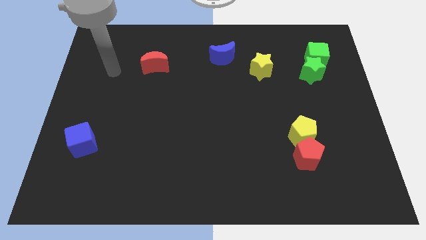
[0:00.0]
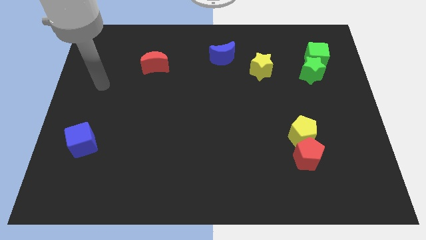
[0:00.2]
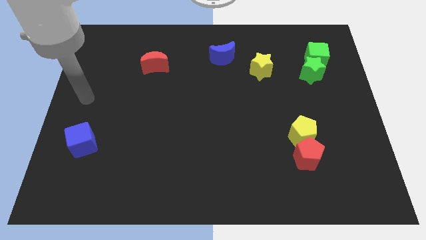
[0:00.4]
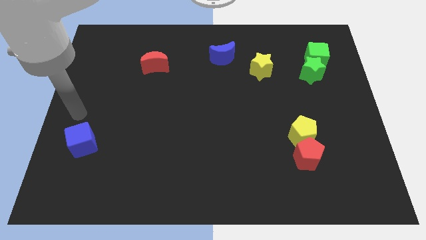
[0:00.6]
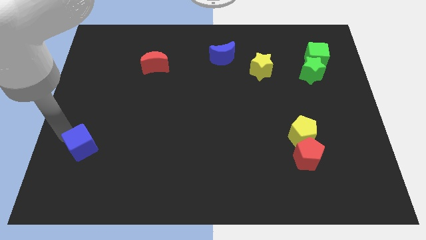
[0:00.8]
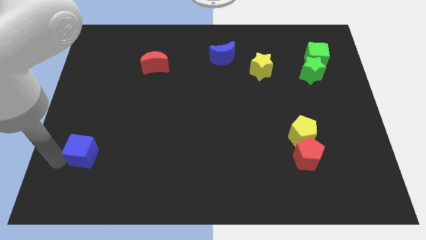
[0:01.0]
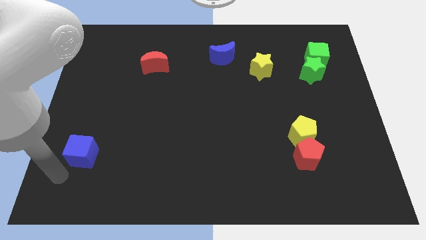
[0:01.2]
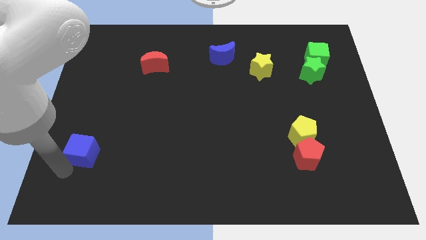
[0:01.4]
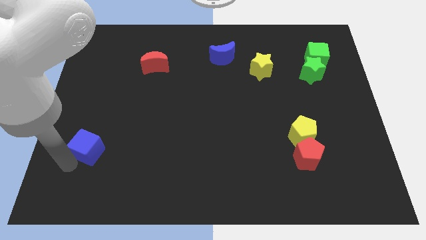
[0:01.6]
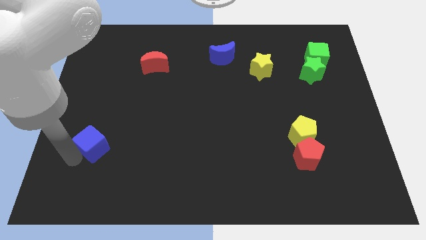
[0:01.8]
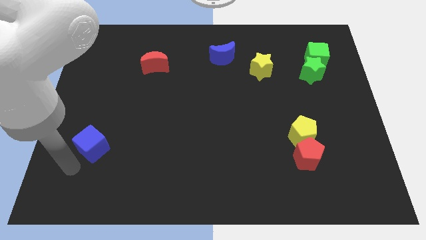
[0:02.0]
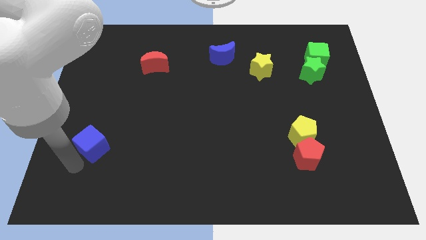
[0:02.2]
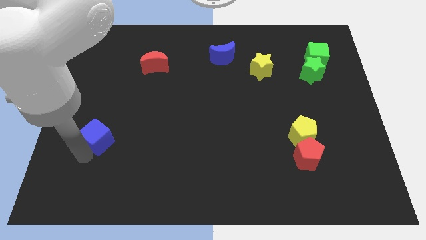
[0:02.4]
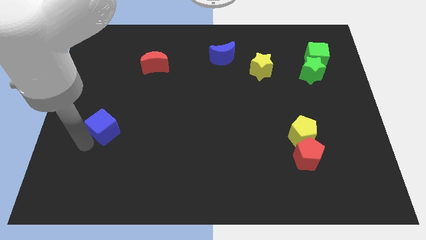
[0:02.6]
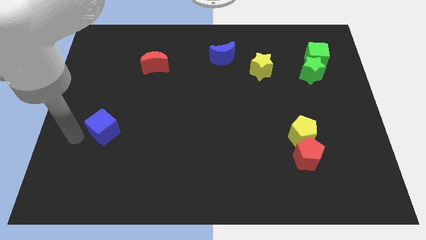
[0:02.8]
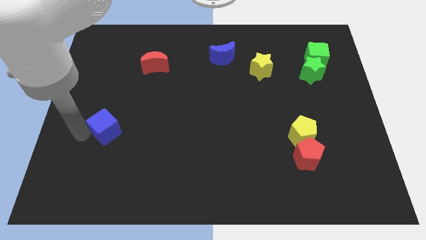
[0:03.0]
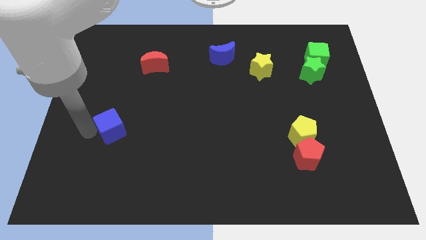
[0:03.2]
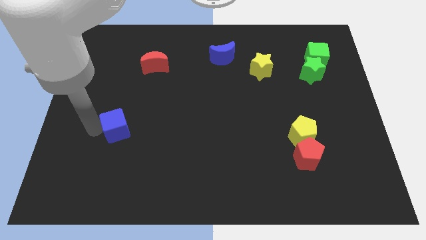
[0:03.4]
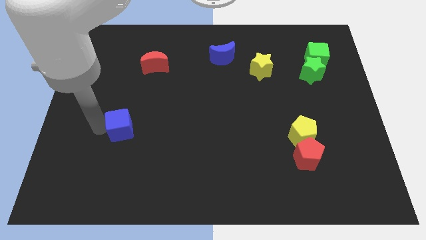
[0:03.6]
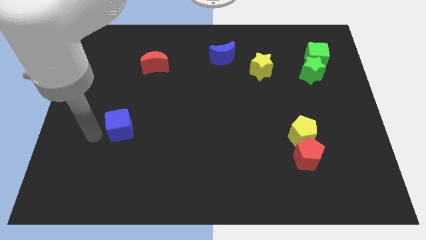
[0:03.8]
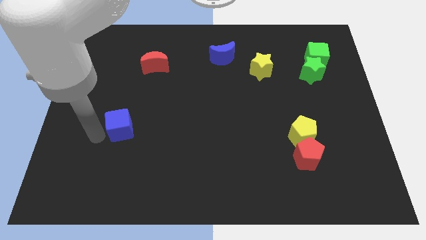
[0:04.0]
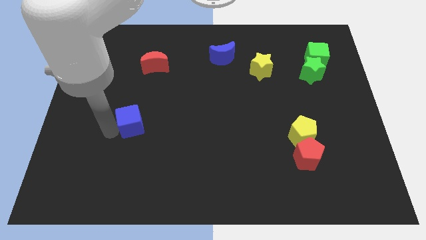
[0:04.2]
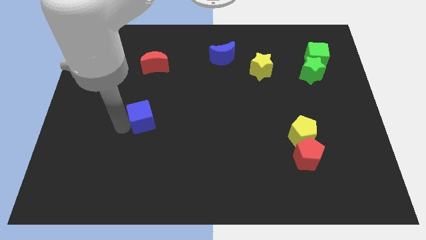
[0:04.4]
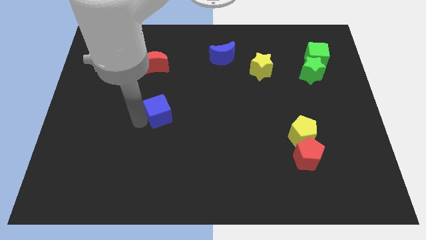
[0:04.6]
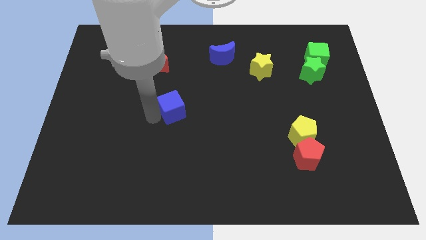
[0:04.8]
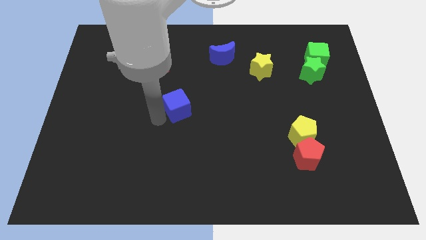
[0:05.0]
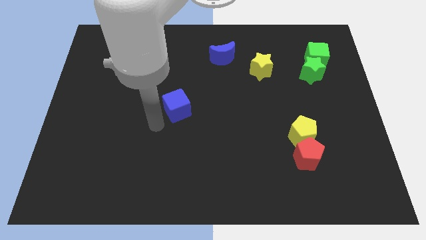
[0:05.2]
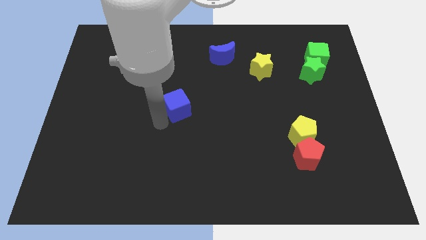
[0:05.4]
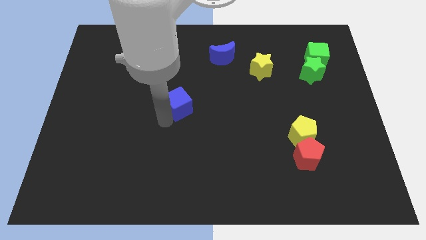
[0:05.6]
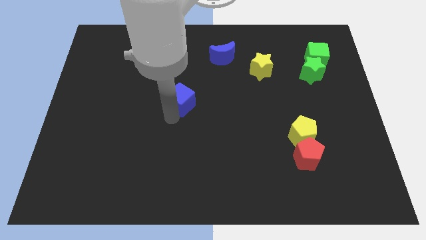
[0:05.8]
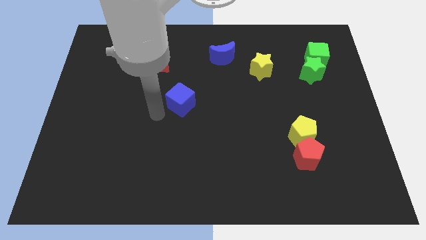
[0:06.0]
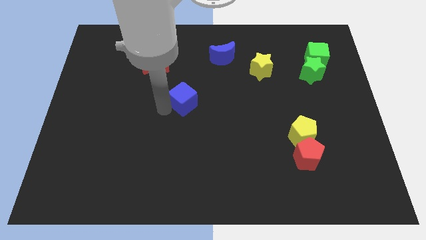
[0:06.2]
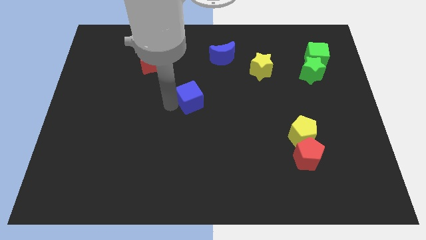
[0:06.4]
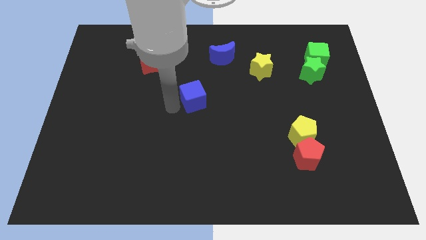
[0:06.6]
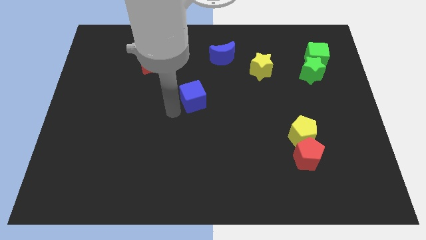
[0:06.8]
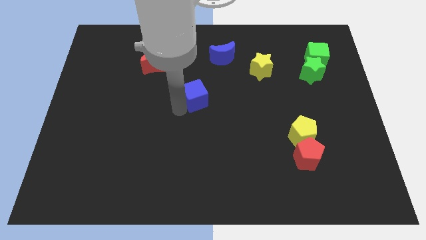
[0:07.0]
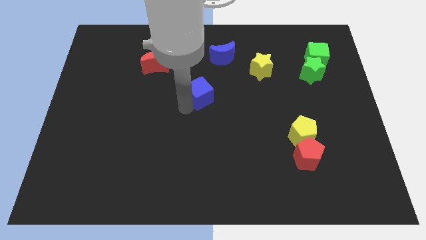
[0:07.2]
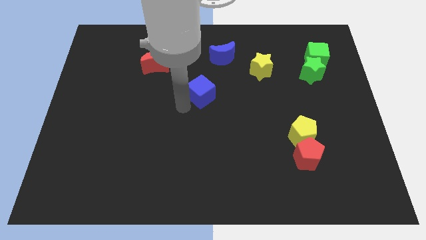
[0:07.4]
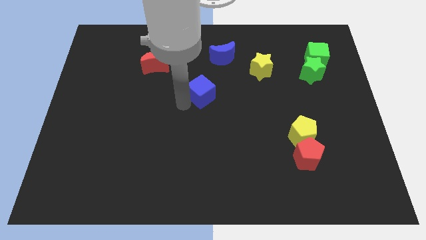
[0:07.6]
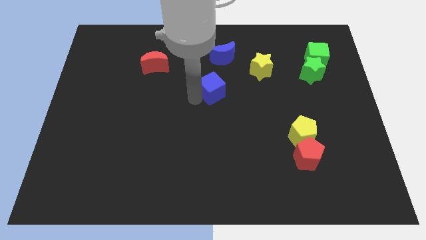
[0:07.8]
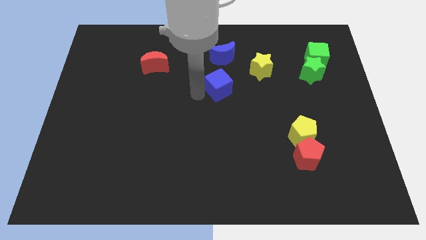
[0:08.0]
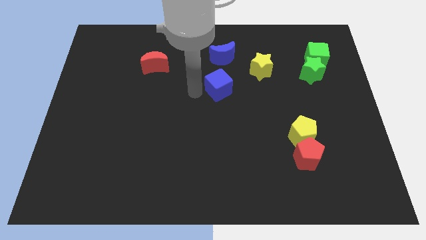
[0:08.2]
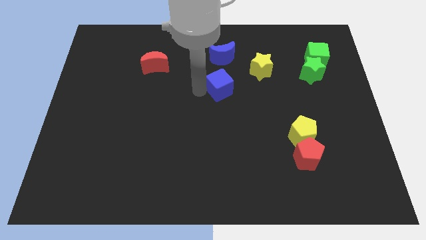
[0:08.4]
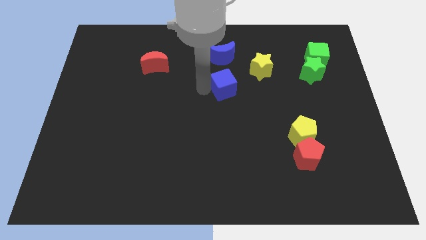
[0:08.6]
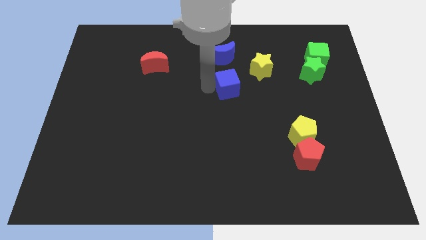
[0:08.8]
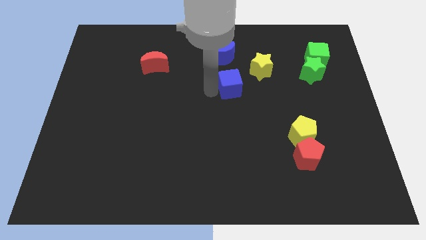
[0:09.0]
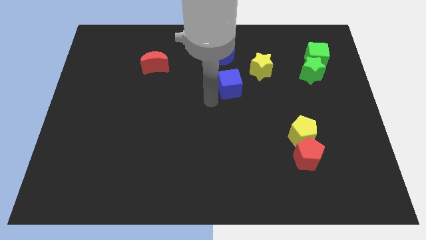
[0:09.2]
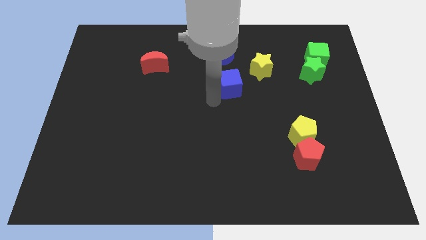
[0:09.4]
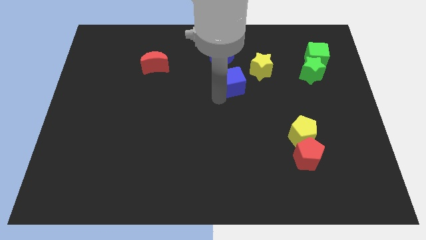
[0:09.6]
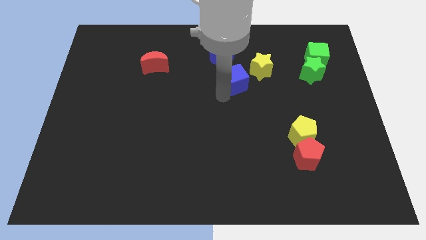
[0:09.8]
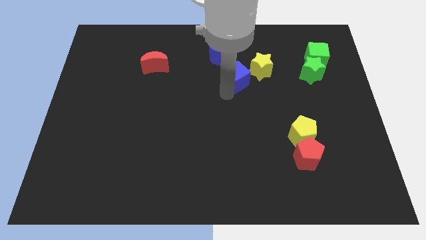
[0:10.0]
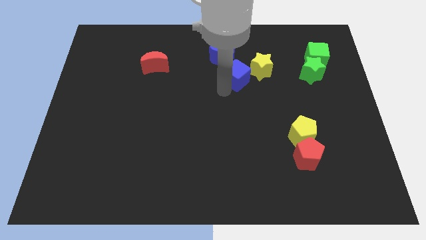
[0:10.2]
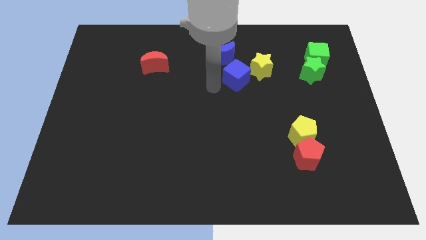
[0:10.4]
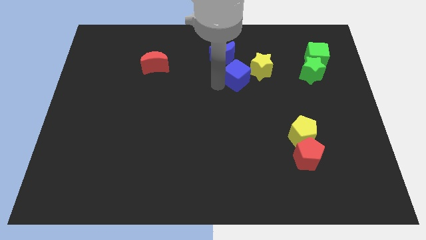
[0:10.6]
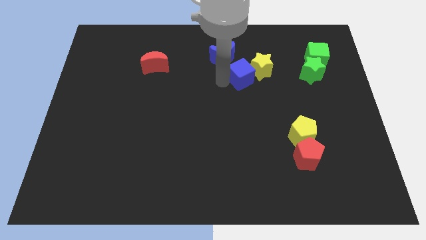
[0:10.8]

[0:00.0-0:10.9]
put the blue cube close to the yellow star
